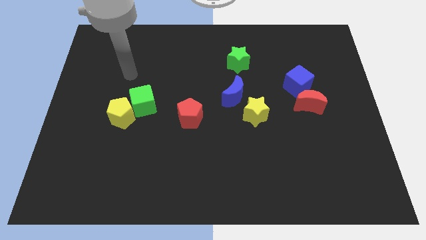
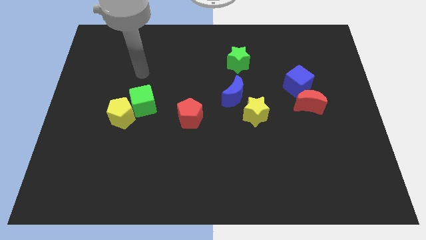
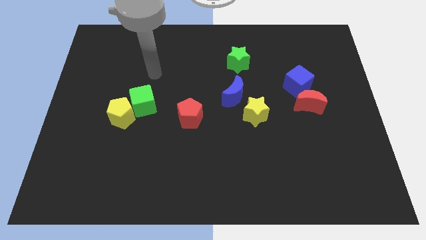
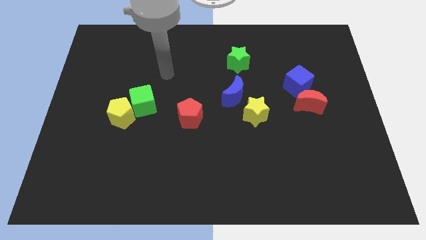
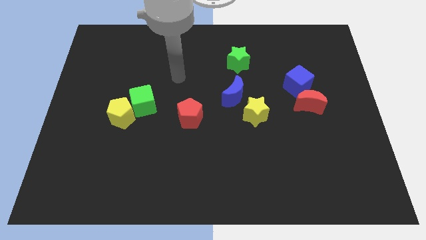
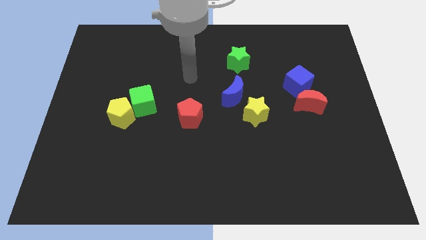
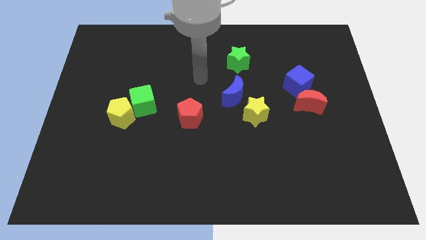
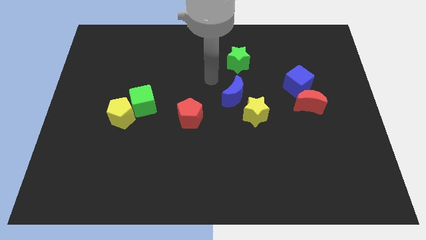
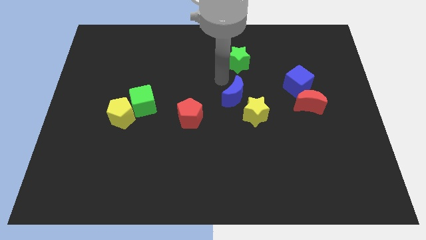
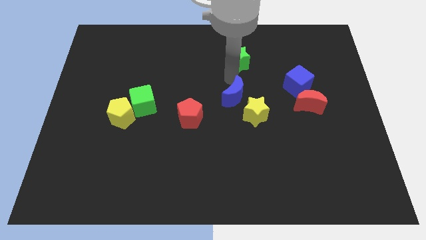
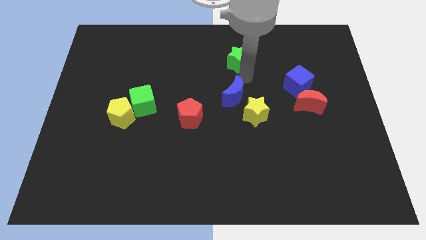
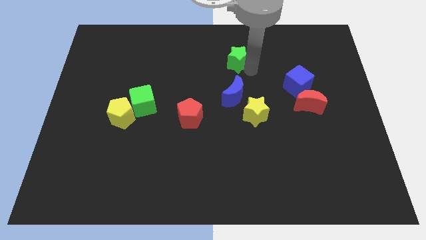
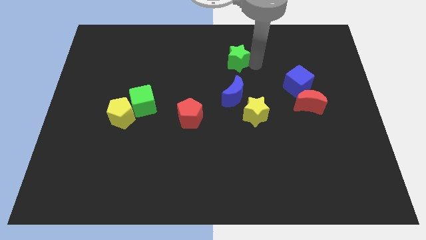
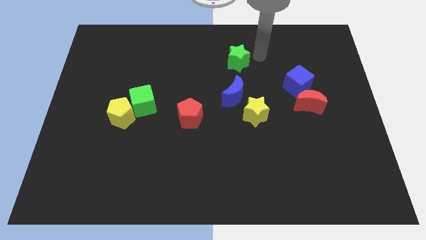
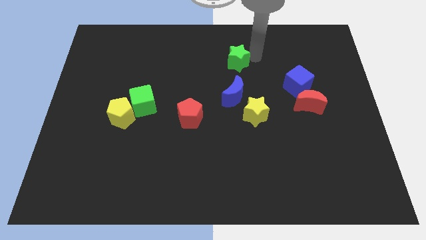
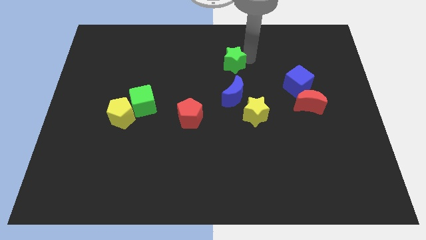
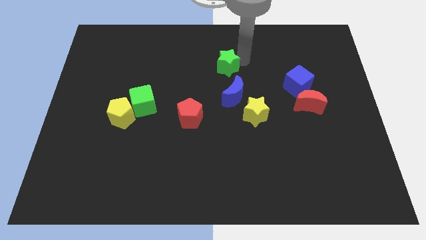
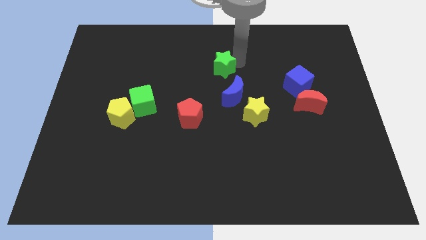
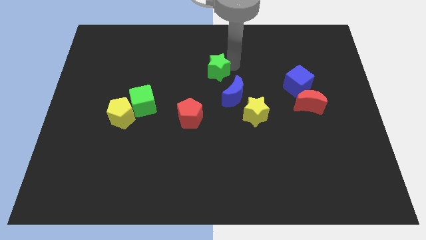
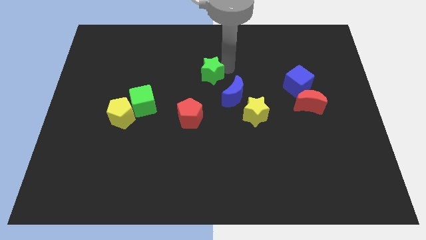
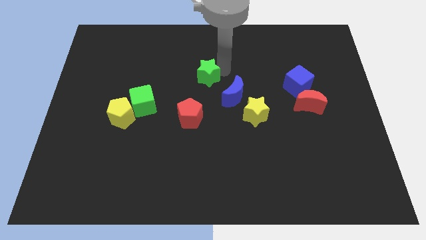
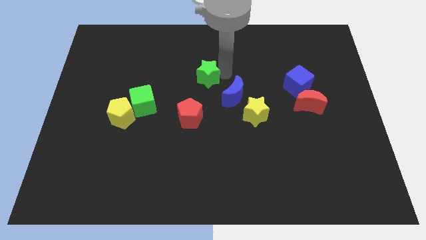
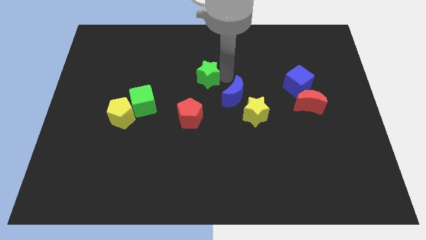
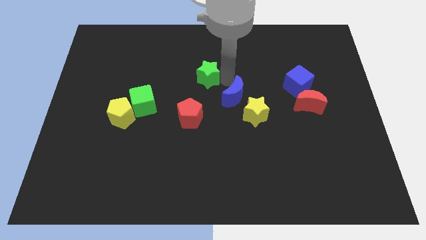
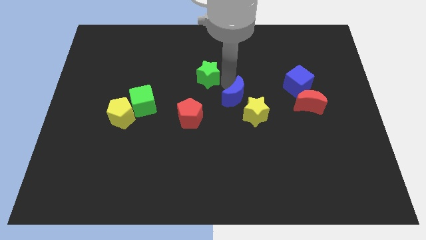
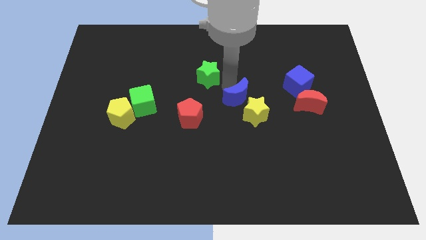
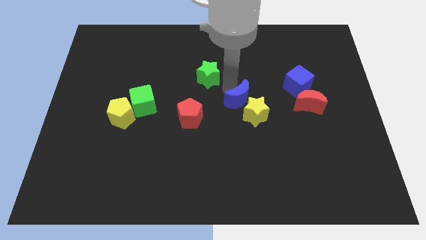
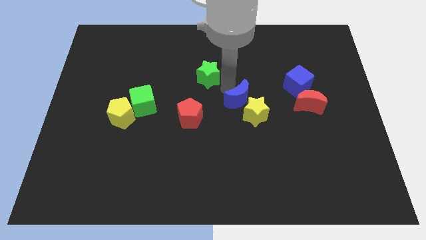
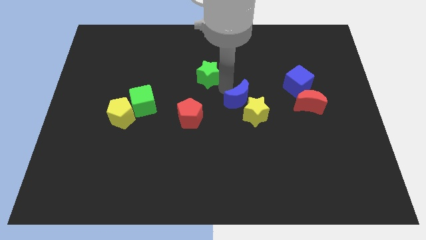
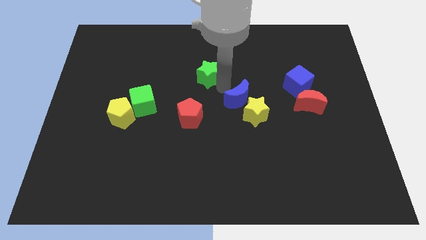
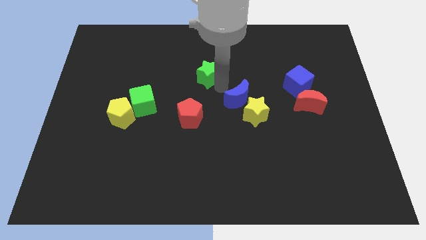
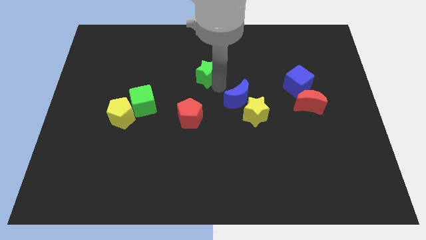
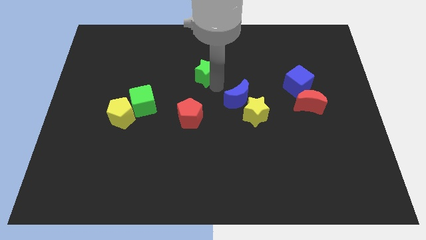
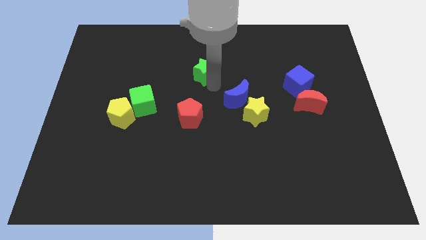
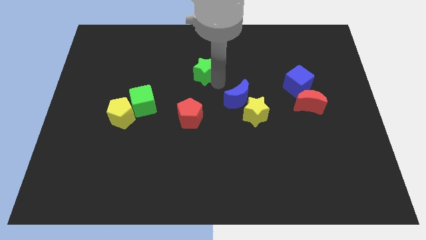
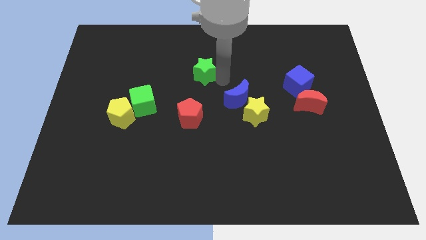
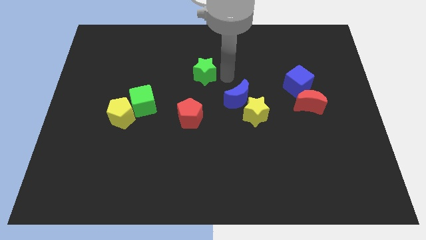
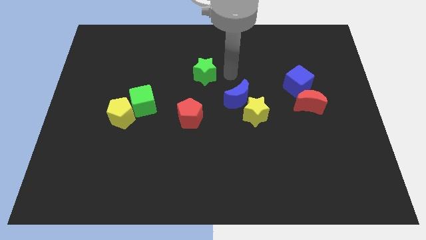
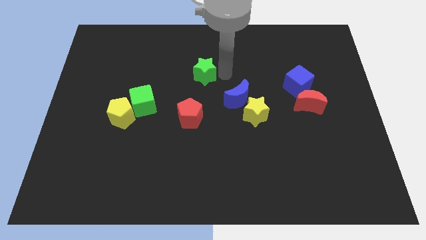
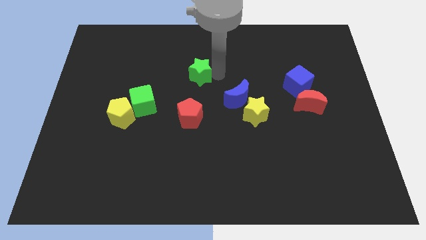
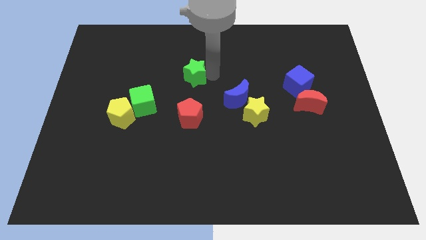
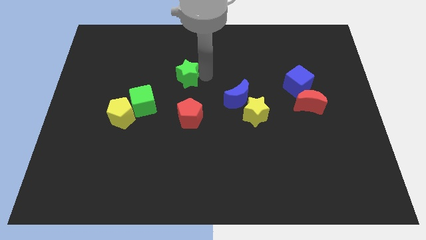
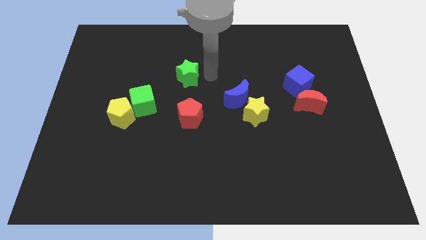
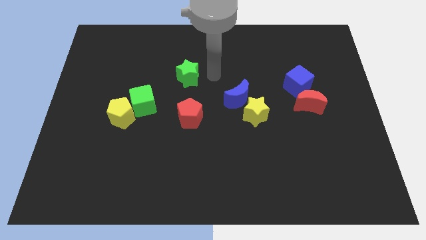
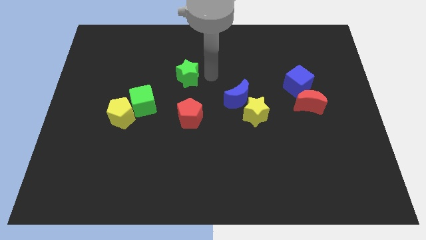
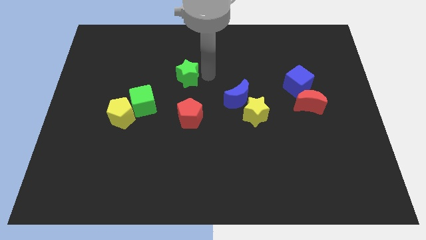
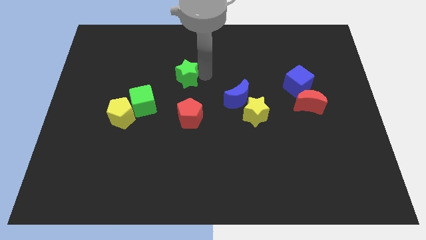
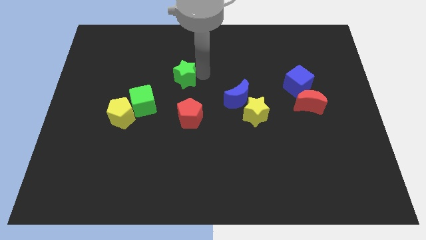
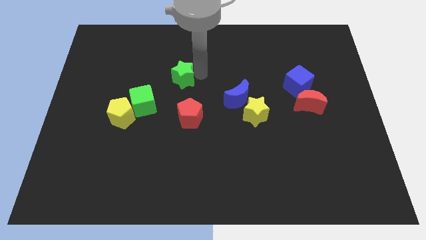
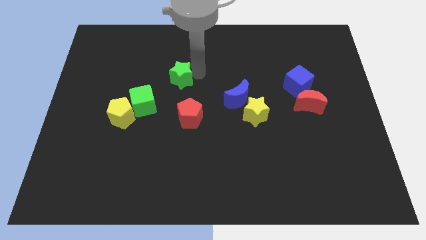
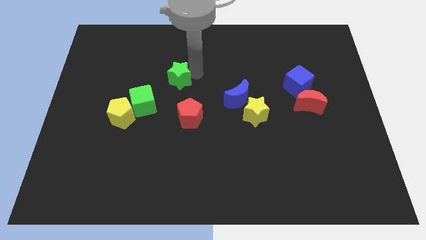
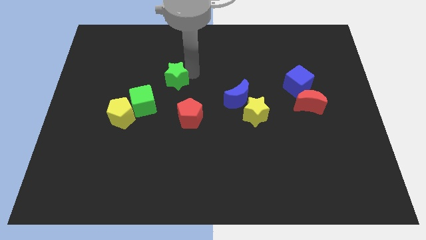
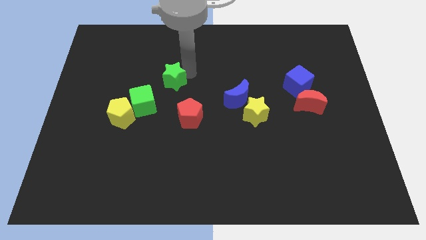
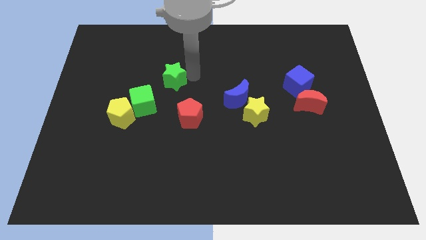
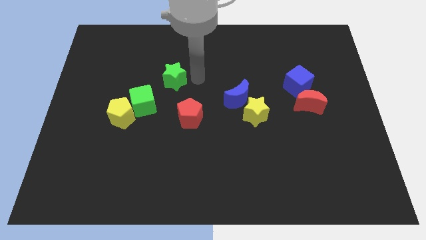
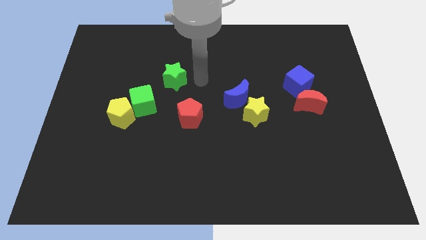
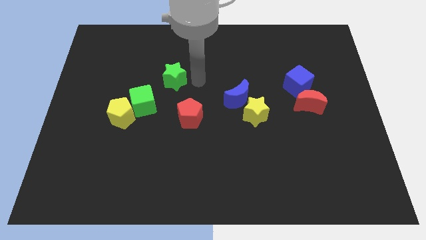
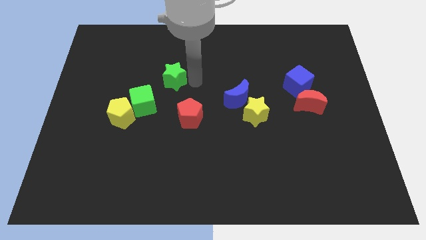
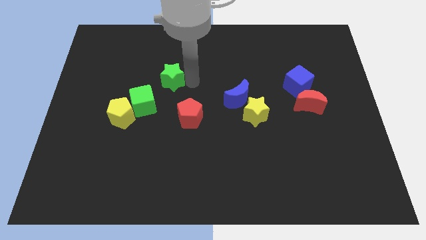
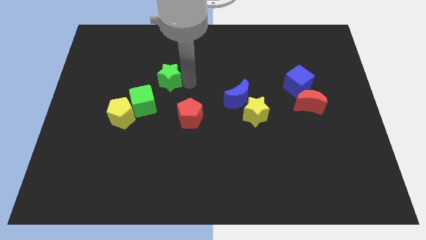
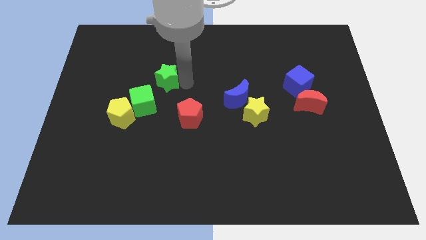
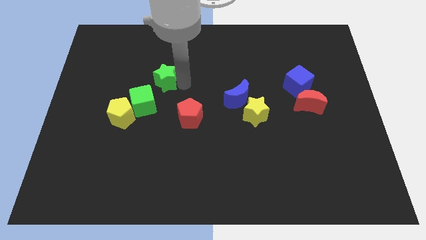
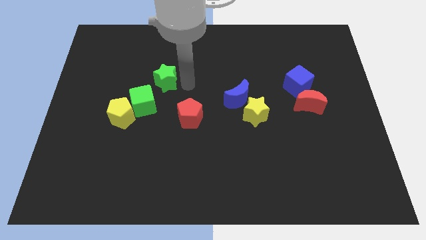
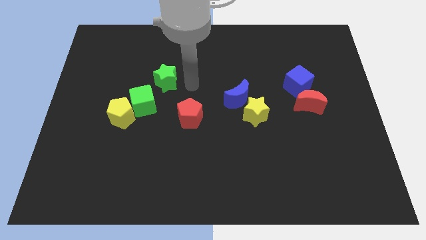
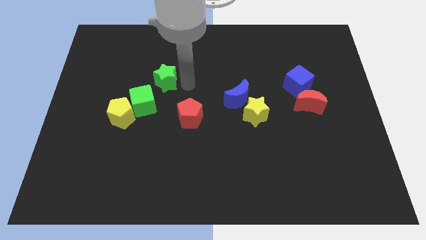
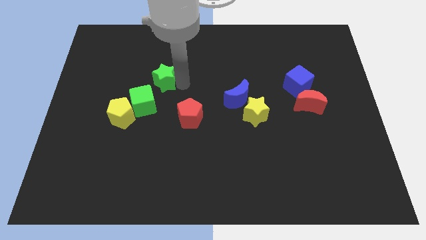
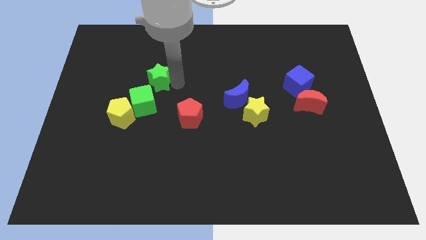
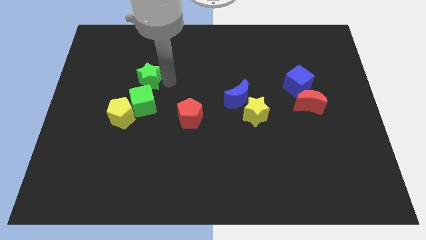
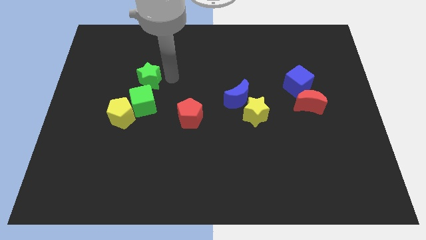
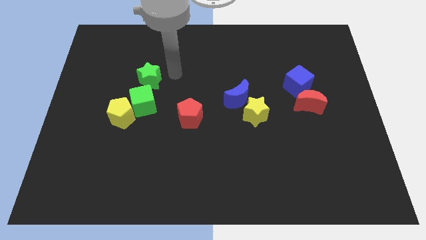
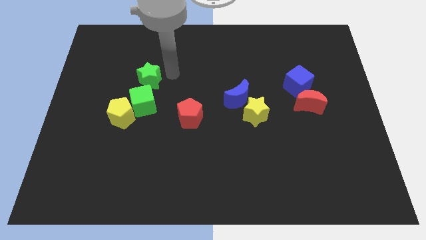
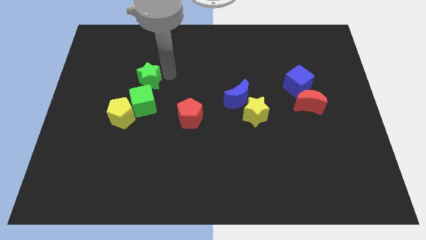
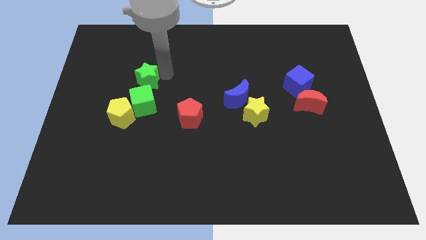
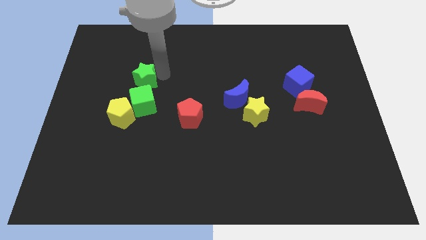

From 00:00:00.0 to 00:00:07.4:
move the green star to the top left side of the green cube
